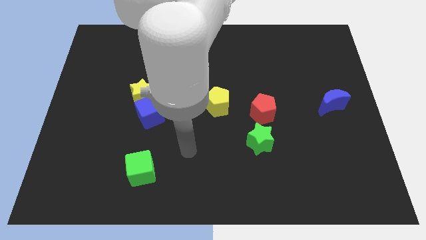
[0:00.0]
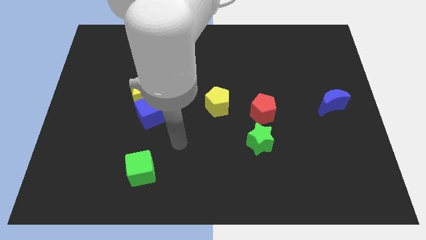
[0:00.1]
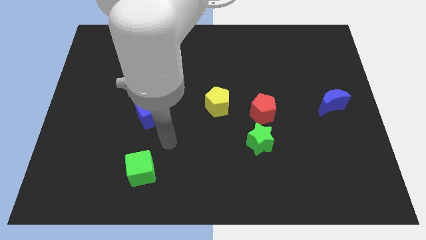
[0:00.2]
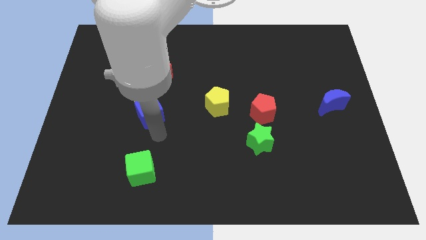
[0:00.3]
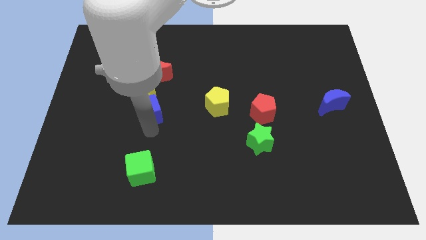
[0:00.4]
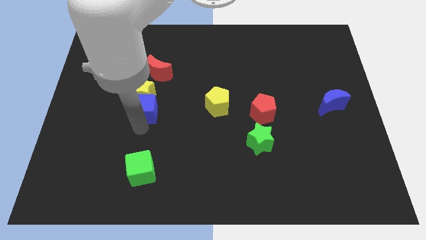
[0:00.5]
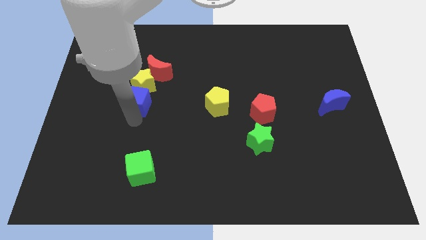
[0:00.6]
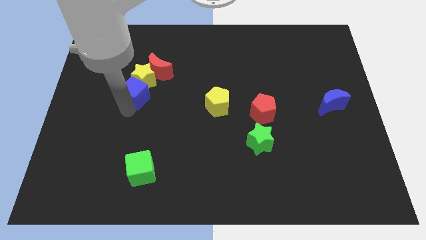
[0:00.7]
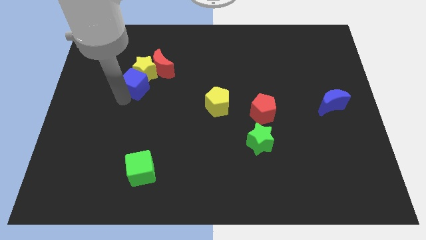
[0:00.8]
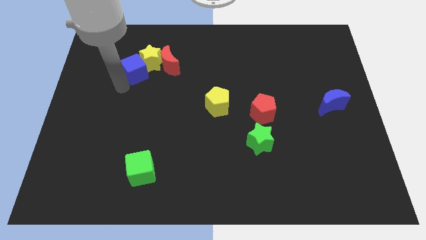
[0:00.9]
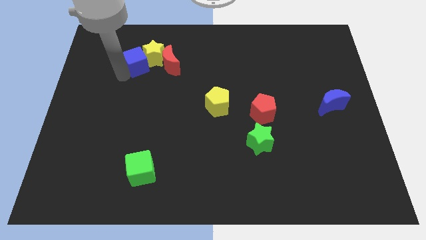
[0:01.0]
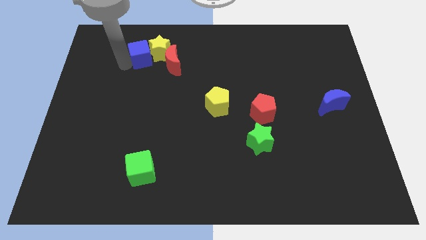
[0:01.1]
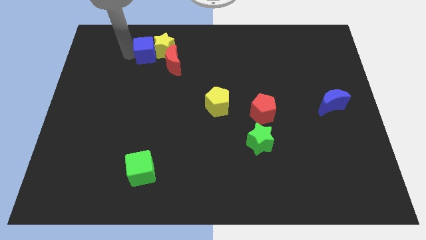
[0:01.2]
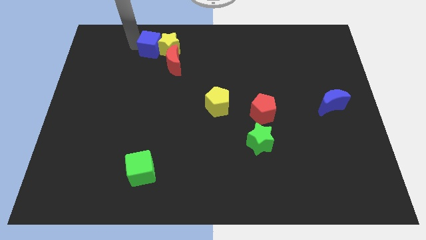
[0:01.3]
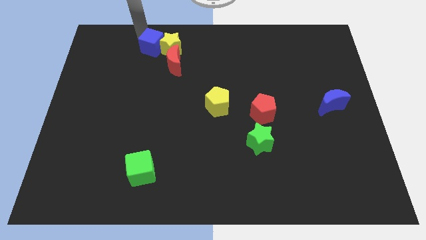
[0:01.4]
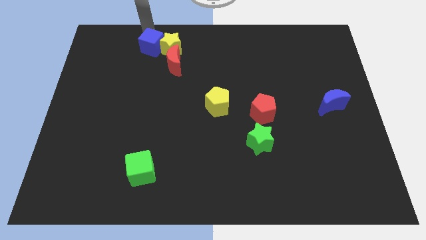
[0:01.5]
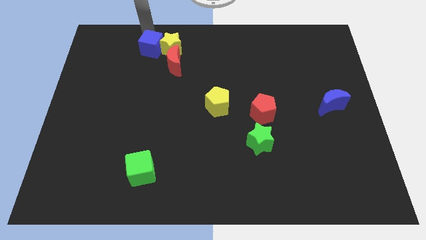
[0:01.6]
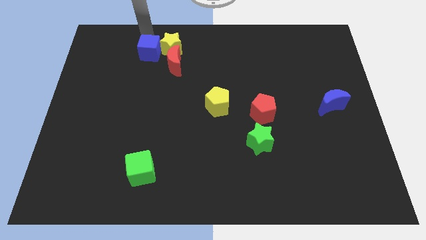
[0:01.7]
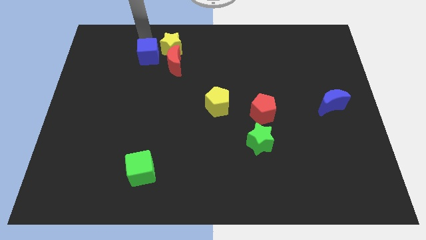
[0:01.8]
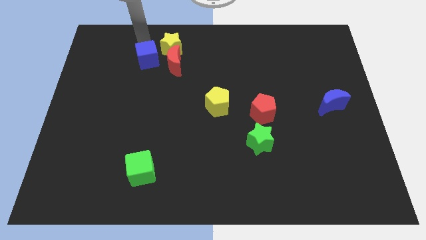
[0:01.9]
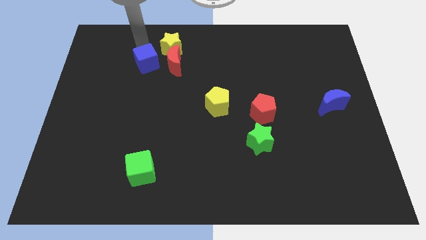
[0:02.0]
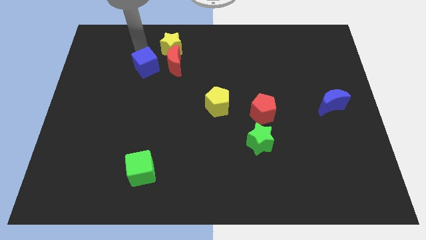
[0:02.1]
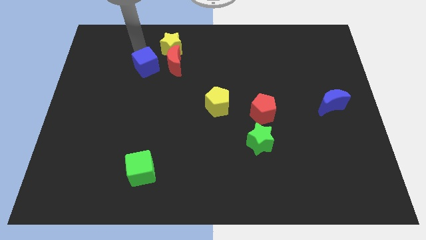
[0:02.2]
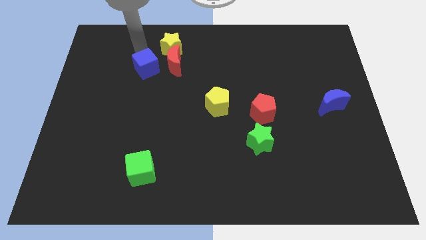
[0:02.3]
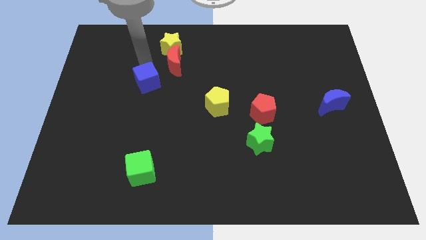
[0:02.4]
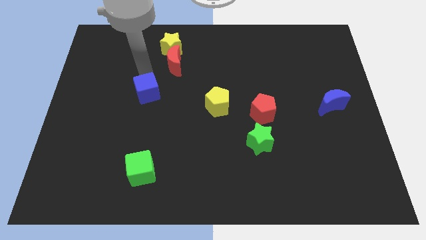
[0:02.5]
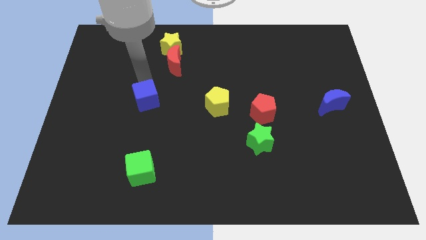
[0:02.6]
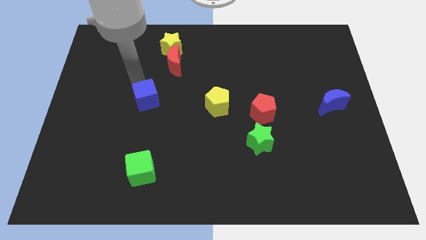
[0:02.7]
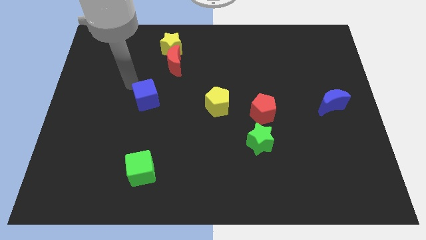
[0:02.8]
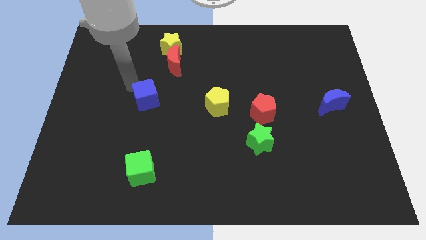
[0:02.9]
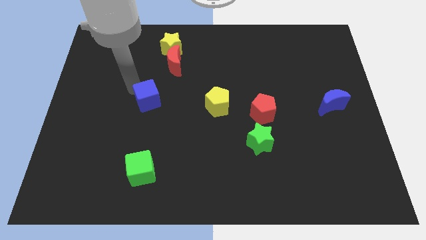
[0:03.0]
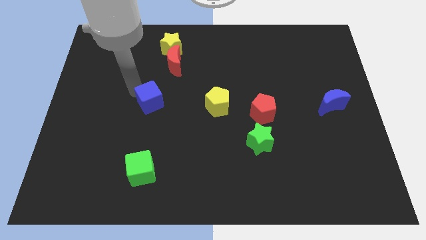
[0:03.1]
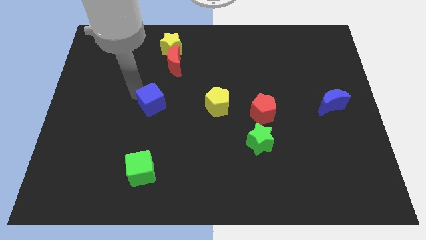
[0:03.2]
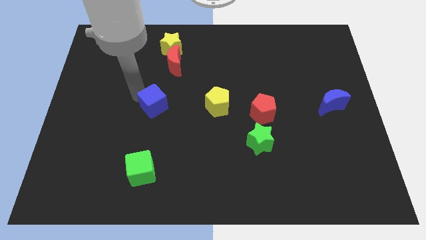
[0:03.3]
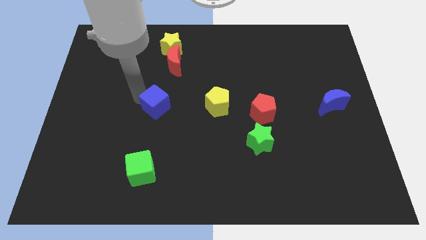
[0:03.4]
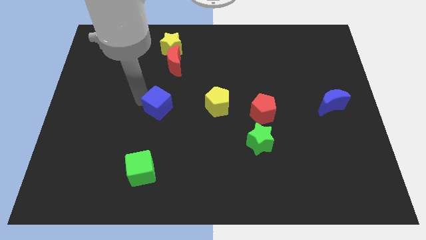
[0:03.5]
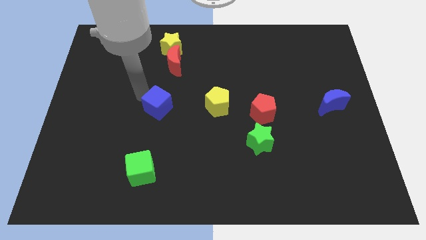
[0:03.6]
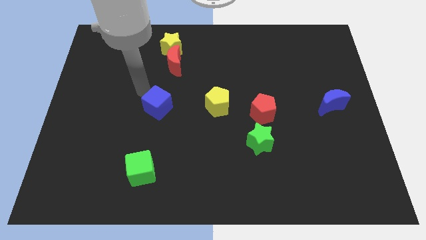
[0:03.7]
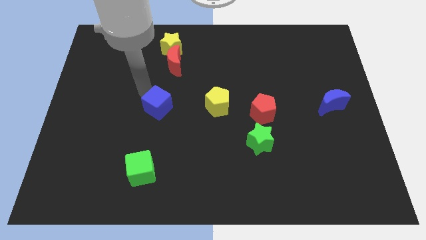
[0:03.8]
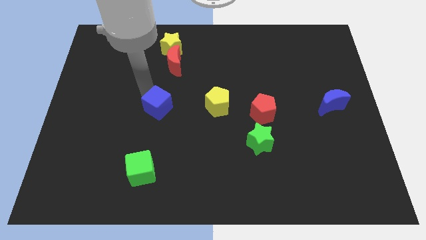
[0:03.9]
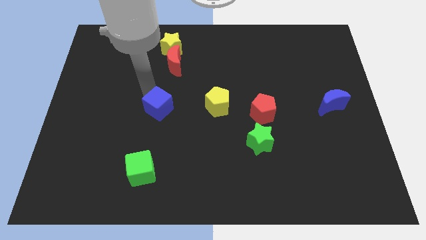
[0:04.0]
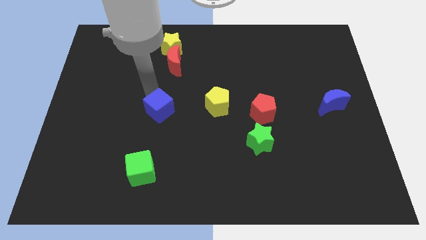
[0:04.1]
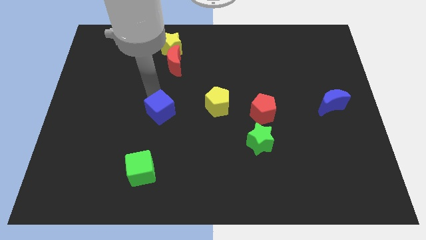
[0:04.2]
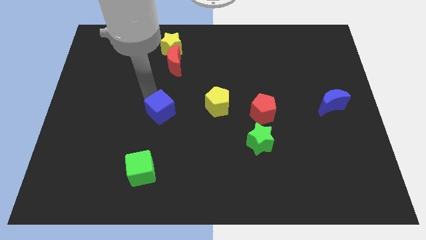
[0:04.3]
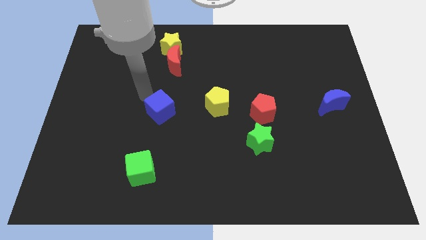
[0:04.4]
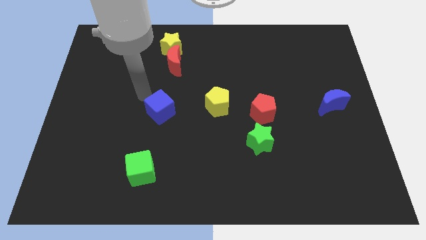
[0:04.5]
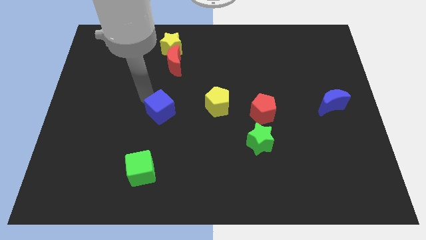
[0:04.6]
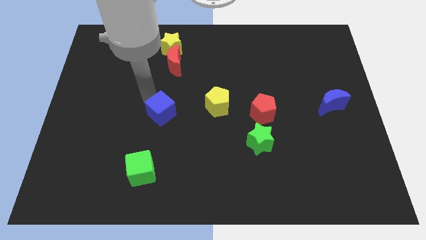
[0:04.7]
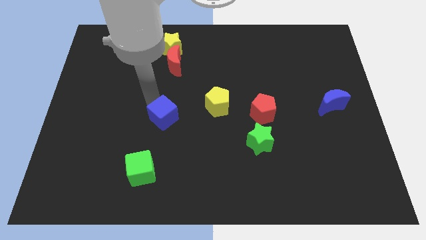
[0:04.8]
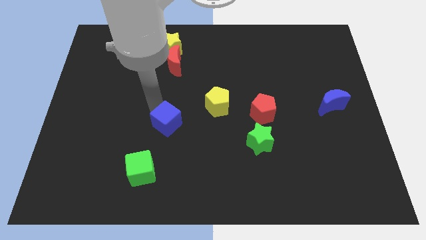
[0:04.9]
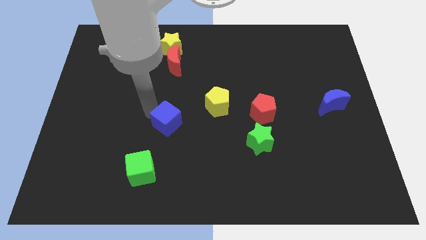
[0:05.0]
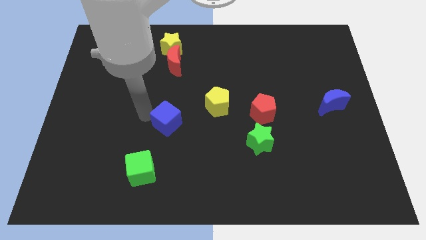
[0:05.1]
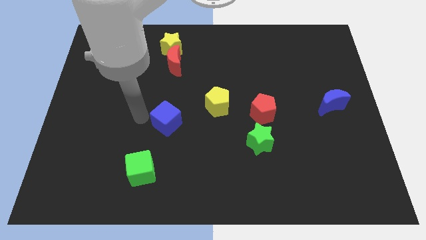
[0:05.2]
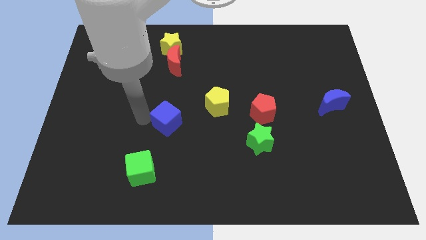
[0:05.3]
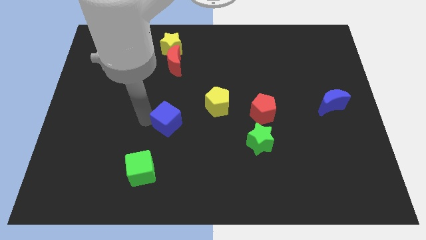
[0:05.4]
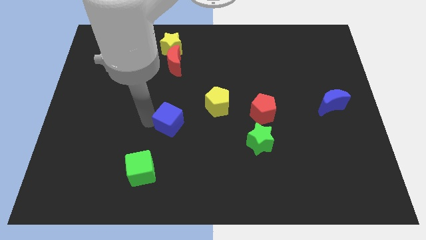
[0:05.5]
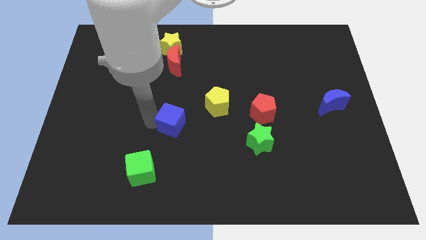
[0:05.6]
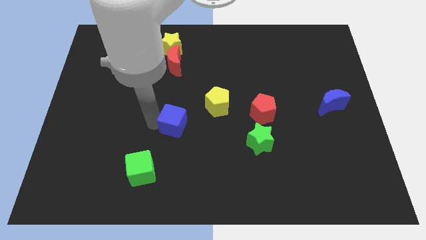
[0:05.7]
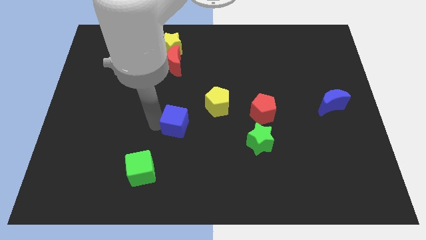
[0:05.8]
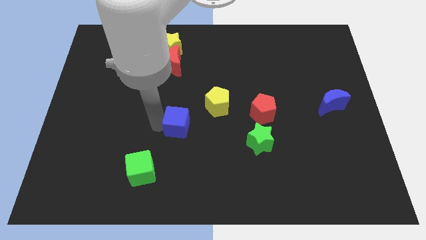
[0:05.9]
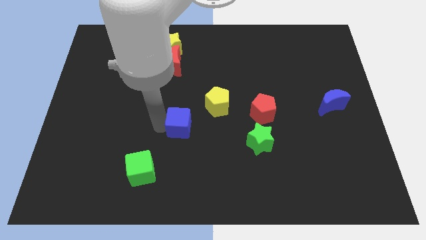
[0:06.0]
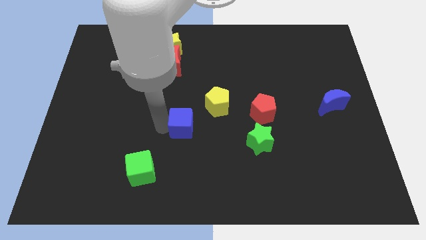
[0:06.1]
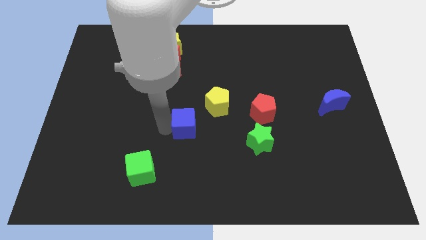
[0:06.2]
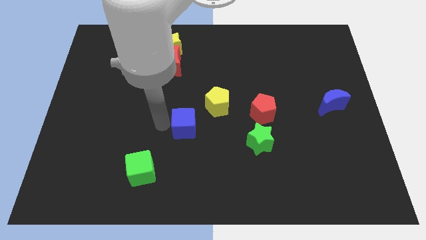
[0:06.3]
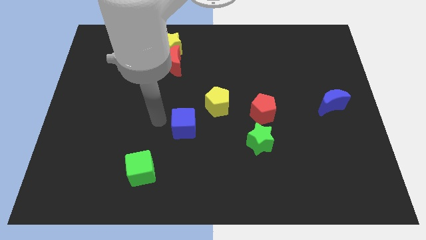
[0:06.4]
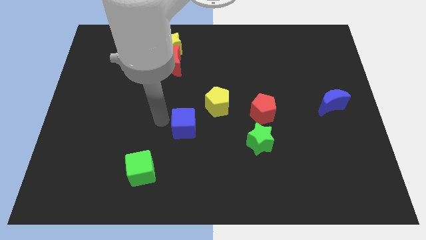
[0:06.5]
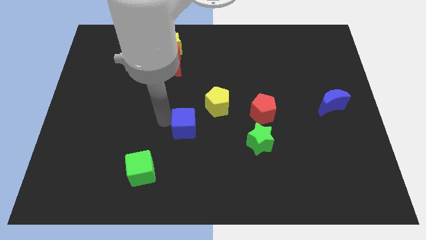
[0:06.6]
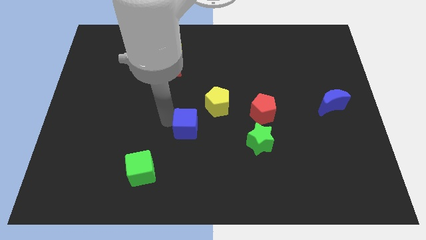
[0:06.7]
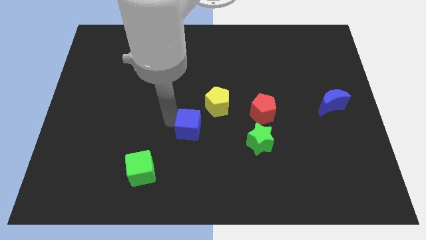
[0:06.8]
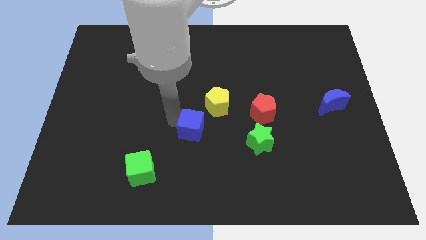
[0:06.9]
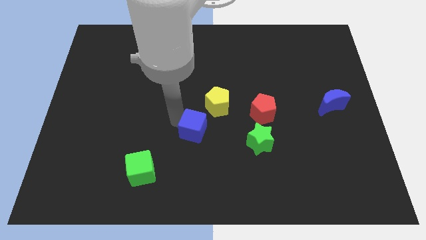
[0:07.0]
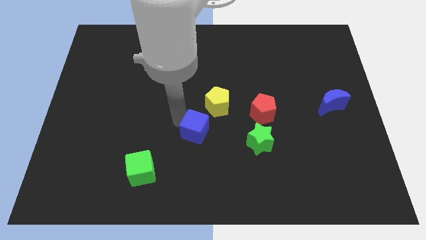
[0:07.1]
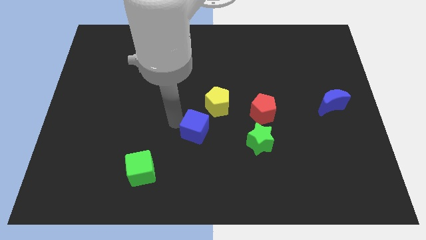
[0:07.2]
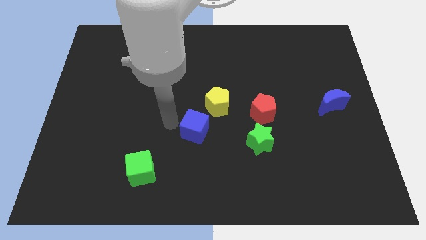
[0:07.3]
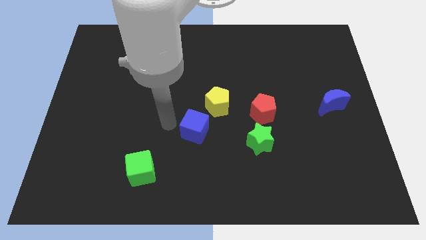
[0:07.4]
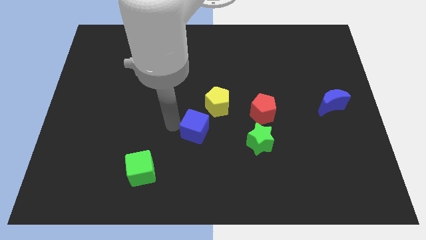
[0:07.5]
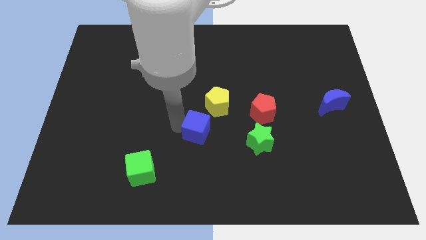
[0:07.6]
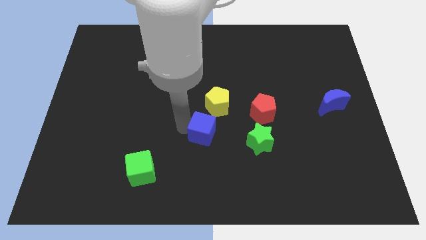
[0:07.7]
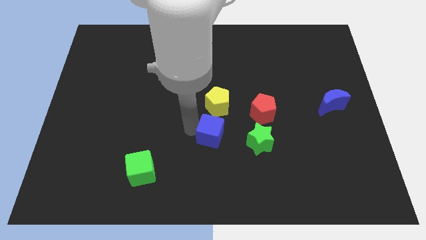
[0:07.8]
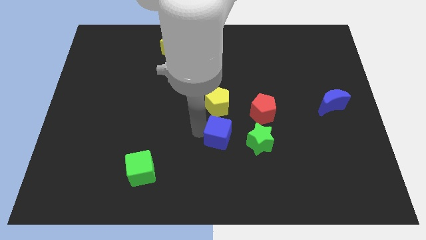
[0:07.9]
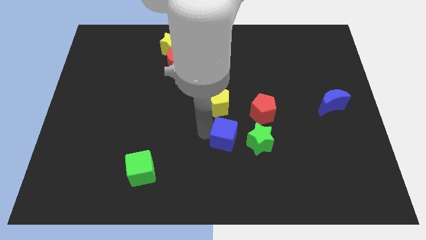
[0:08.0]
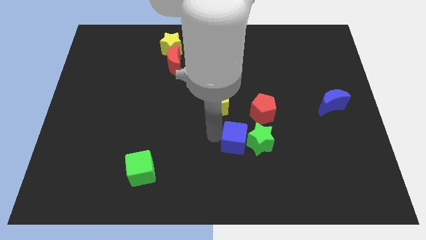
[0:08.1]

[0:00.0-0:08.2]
slide the blue cube next to the green star
